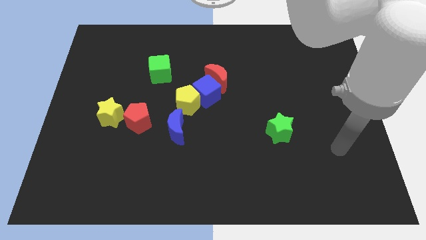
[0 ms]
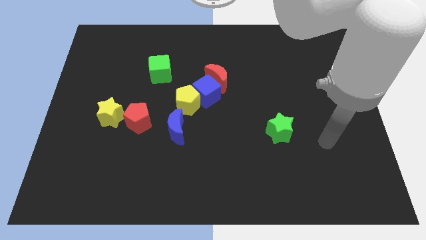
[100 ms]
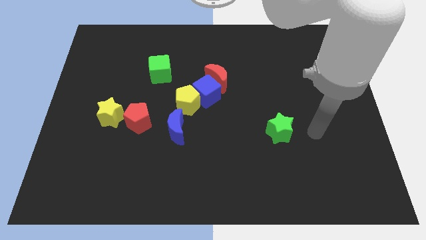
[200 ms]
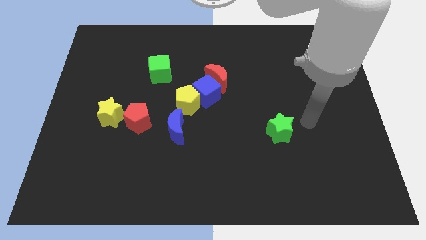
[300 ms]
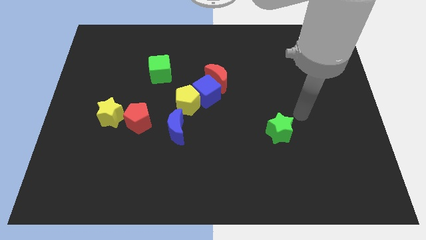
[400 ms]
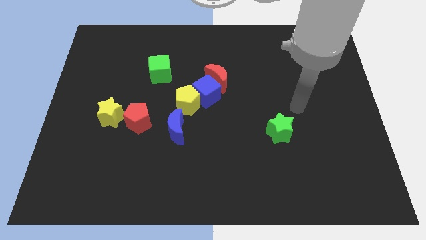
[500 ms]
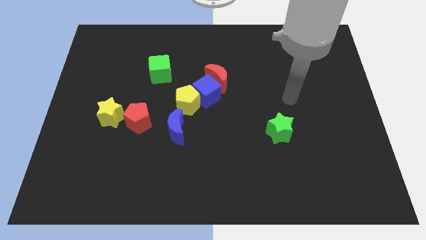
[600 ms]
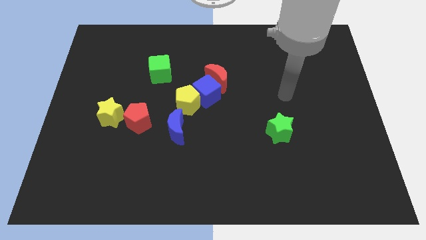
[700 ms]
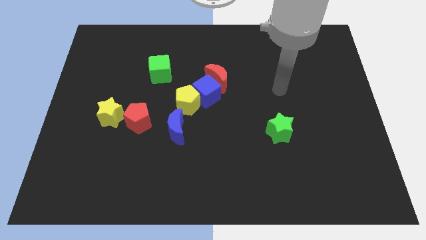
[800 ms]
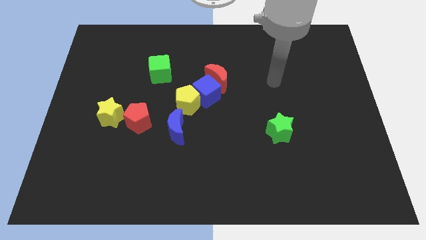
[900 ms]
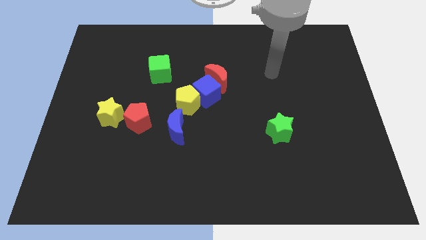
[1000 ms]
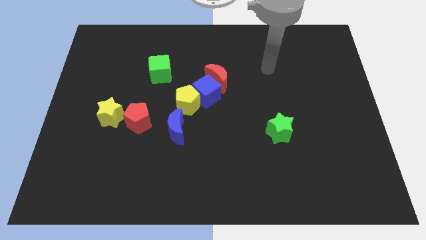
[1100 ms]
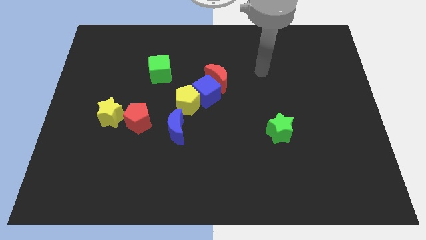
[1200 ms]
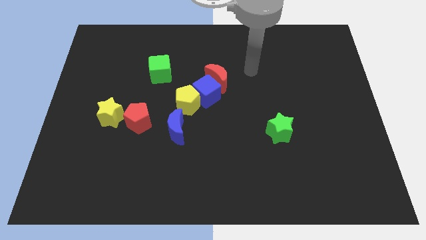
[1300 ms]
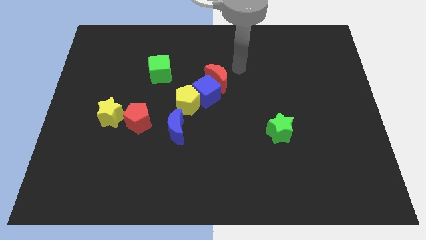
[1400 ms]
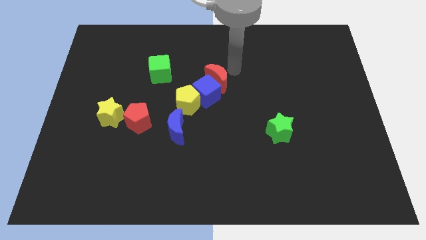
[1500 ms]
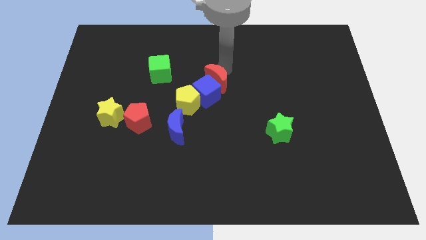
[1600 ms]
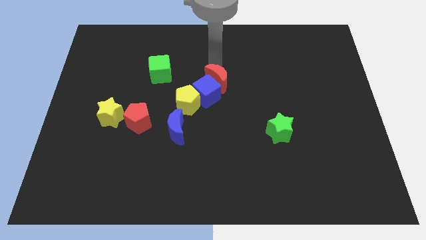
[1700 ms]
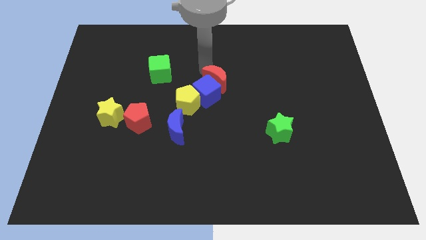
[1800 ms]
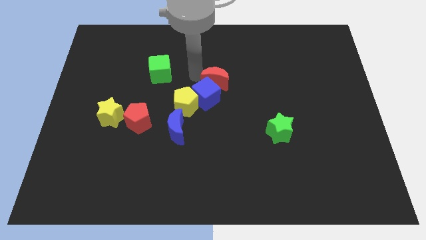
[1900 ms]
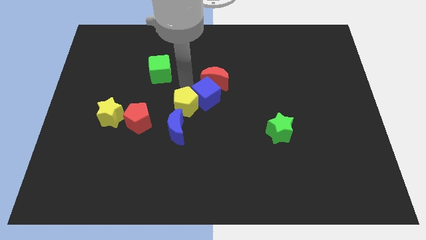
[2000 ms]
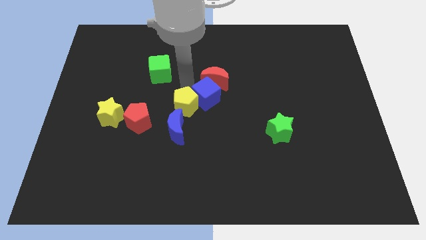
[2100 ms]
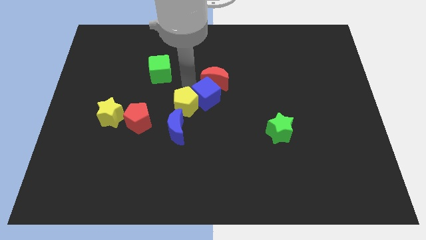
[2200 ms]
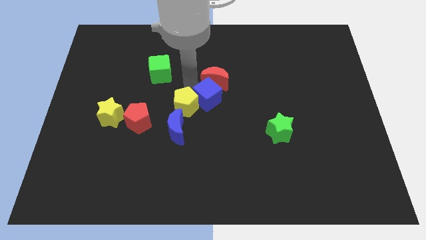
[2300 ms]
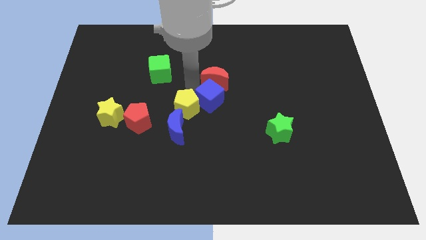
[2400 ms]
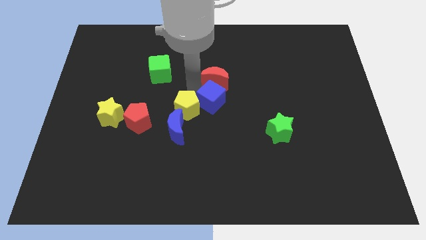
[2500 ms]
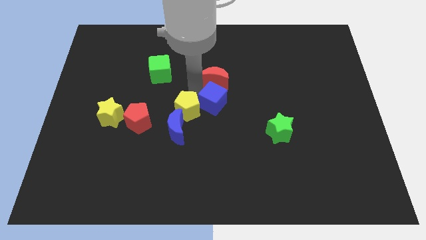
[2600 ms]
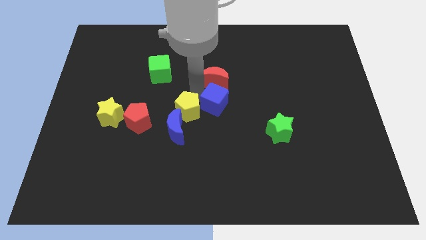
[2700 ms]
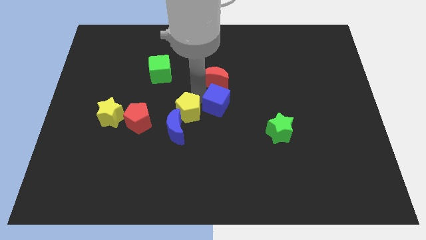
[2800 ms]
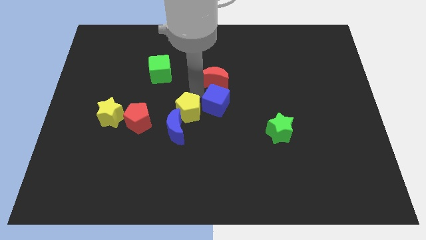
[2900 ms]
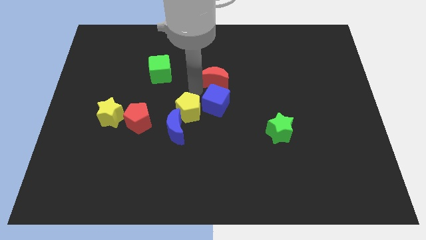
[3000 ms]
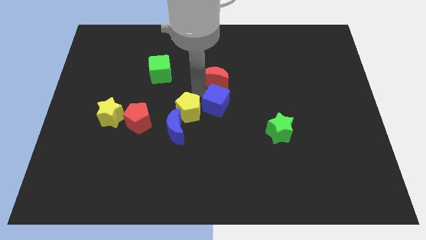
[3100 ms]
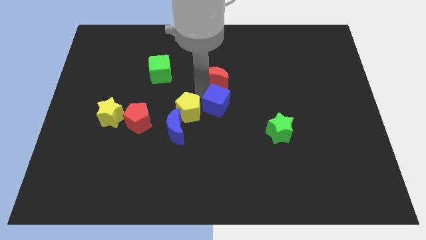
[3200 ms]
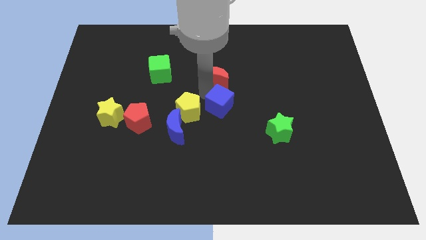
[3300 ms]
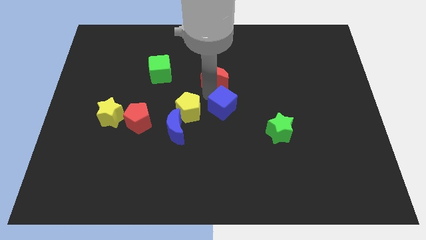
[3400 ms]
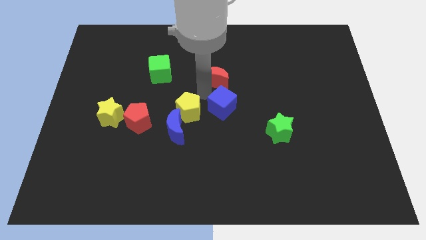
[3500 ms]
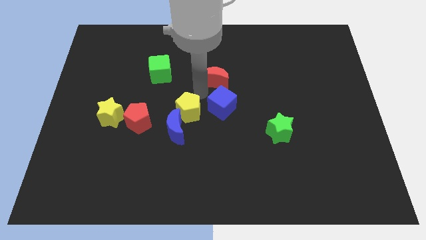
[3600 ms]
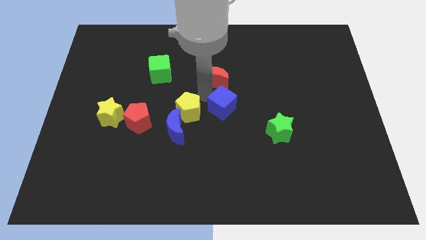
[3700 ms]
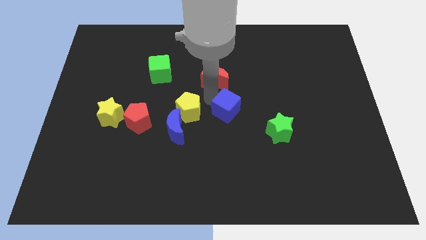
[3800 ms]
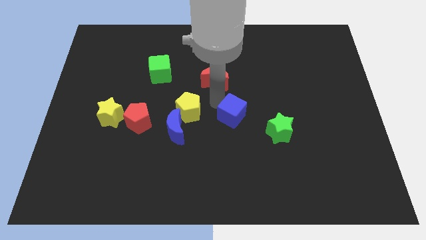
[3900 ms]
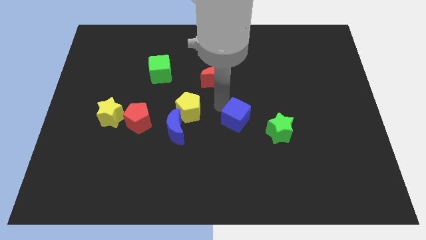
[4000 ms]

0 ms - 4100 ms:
move the blue cube away from the yellow pentagon and red moon

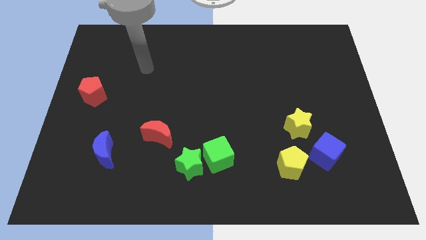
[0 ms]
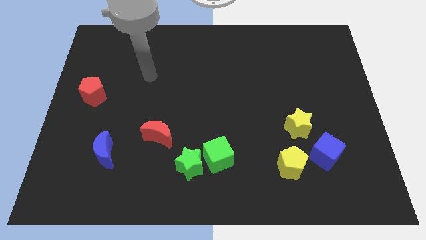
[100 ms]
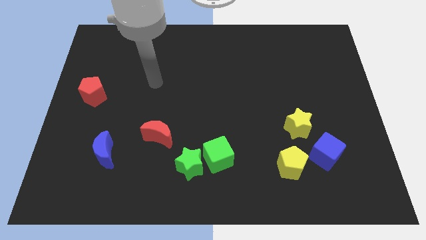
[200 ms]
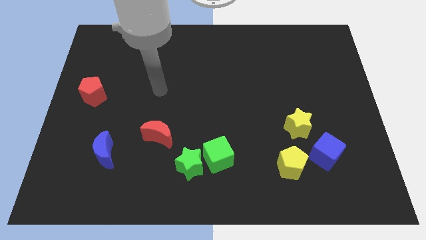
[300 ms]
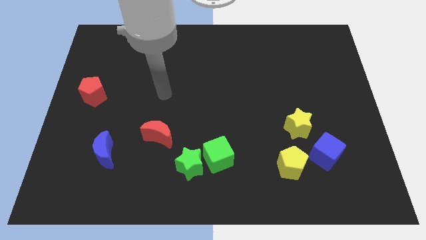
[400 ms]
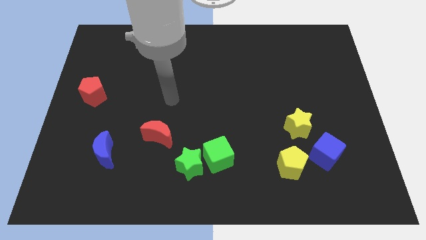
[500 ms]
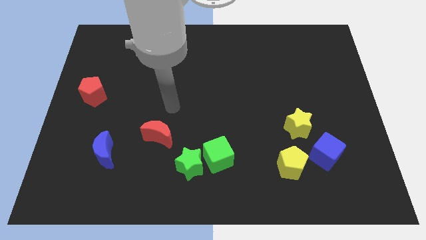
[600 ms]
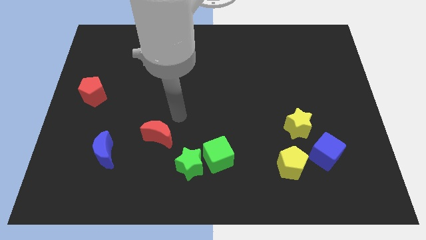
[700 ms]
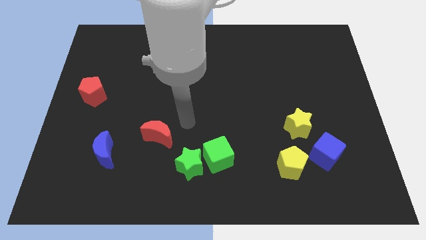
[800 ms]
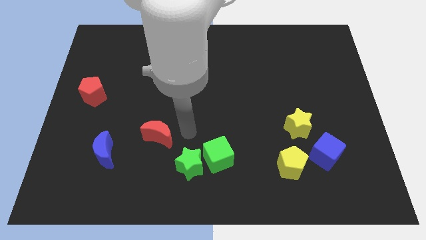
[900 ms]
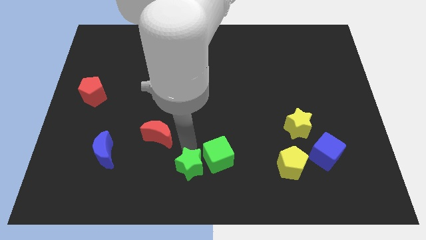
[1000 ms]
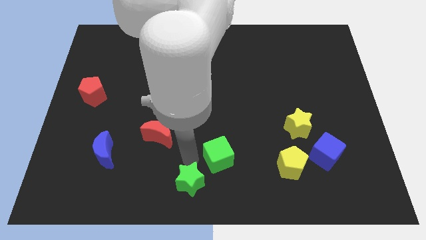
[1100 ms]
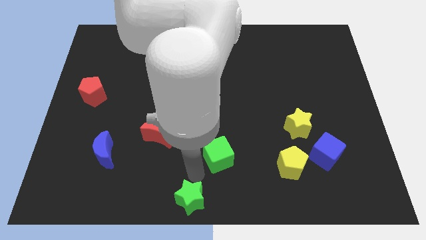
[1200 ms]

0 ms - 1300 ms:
move the green cube away from the green star

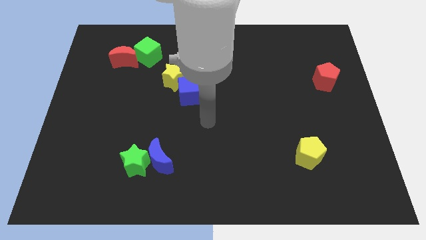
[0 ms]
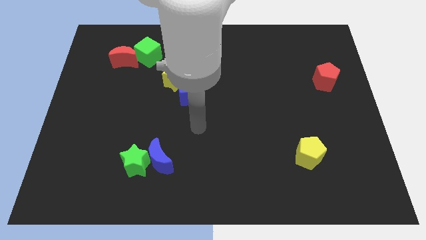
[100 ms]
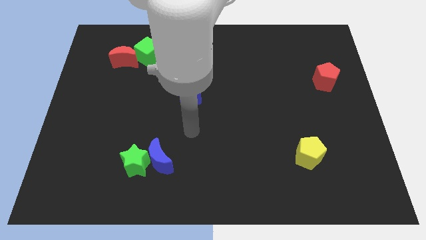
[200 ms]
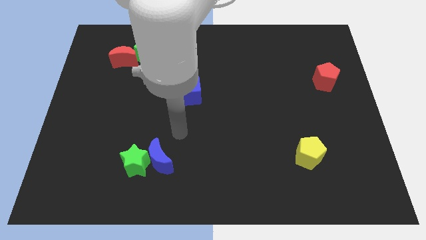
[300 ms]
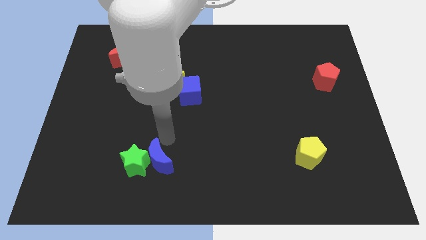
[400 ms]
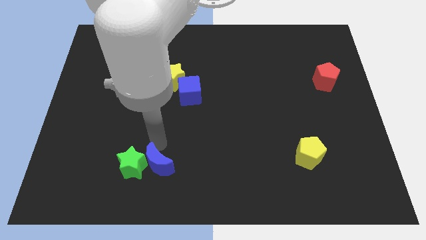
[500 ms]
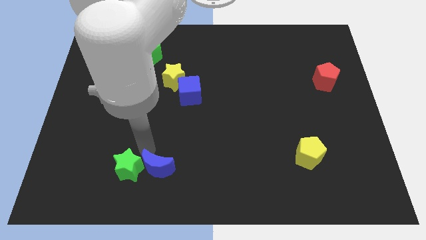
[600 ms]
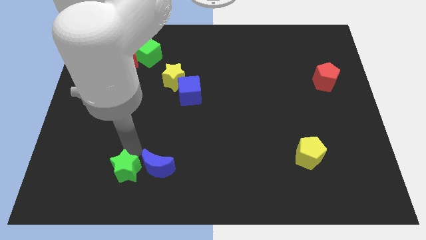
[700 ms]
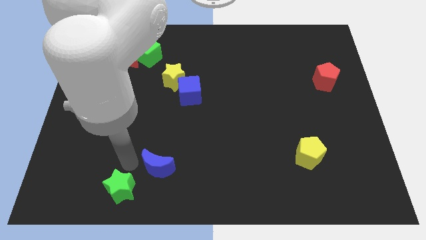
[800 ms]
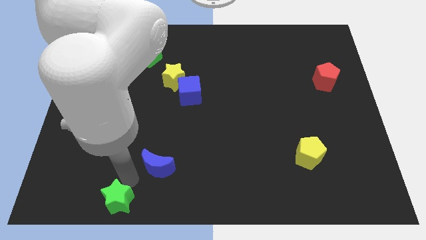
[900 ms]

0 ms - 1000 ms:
separate the blue moon from the green star

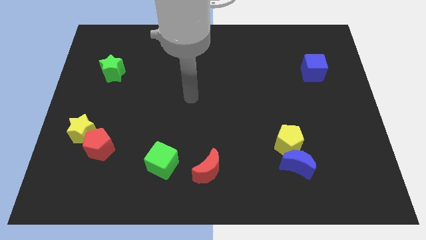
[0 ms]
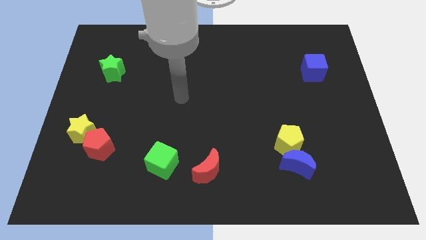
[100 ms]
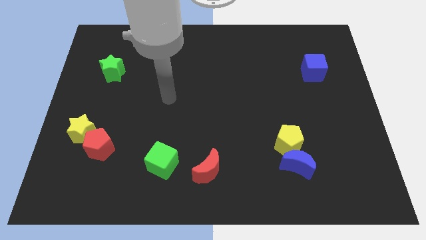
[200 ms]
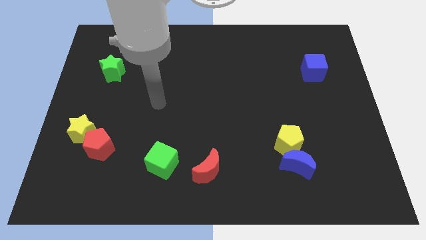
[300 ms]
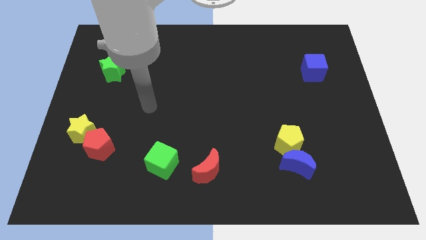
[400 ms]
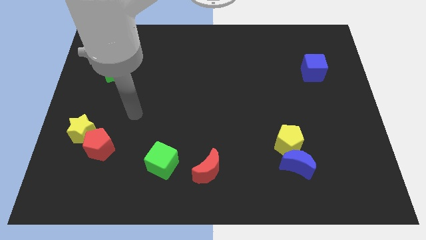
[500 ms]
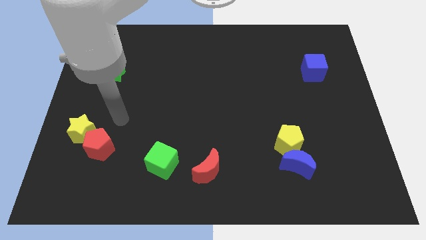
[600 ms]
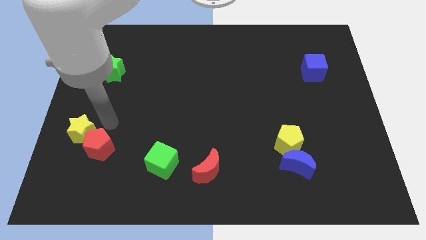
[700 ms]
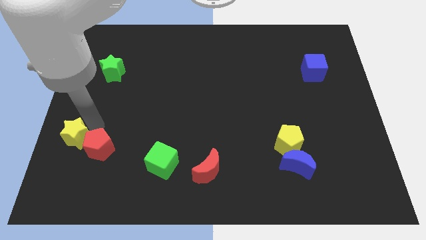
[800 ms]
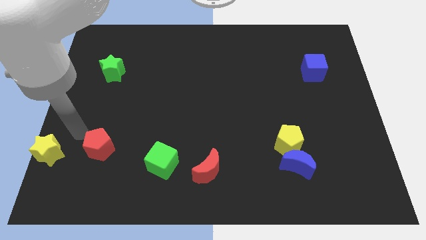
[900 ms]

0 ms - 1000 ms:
move the red pentagon away from the yellow star

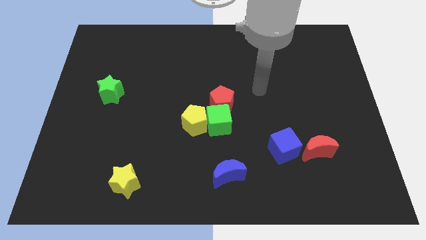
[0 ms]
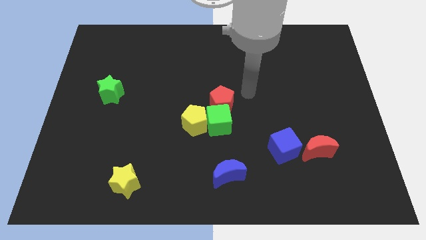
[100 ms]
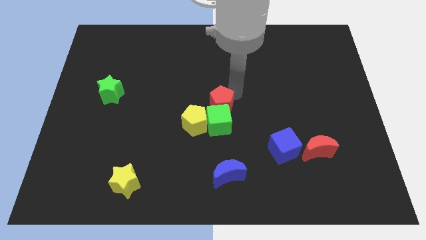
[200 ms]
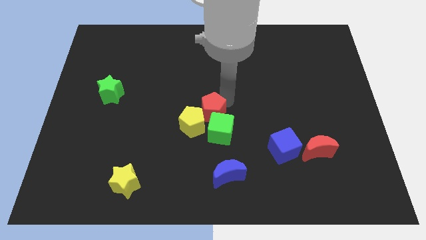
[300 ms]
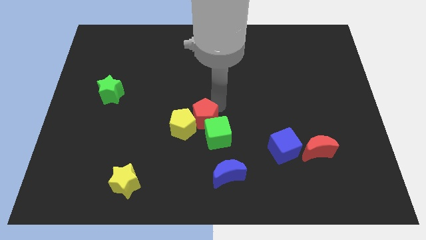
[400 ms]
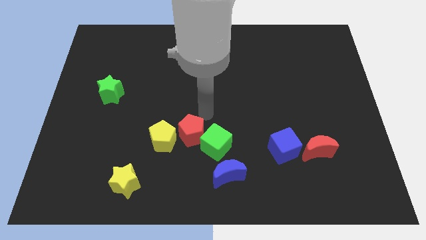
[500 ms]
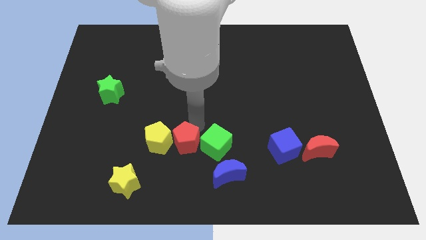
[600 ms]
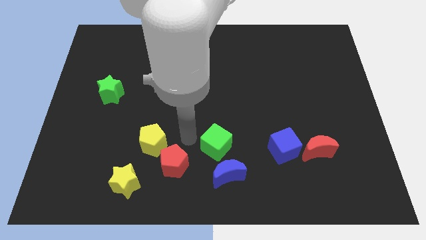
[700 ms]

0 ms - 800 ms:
separate the green cube from the yellow pentagon and red pentagon

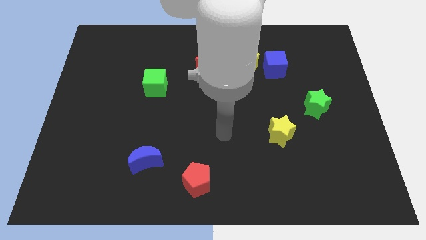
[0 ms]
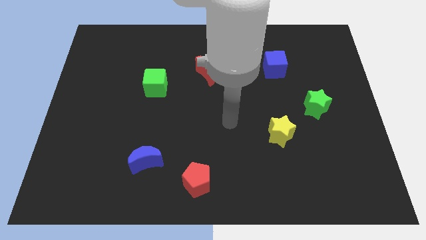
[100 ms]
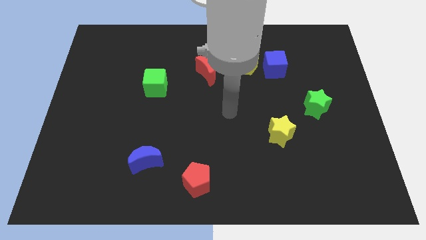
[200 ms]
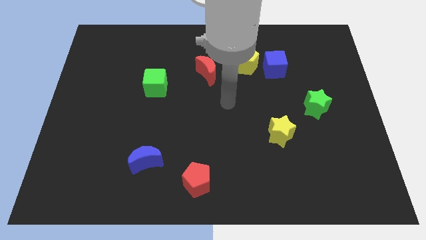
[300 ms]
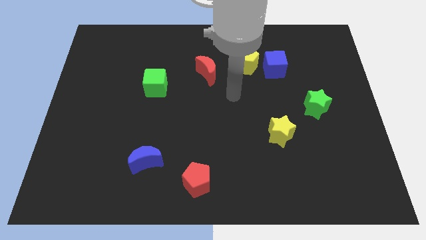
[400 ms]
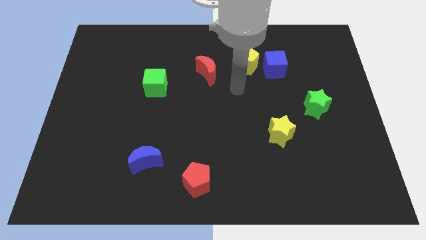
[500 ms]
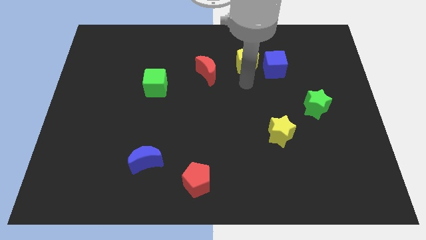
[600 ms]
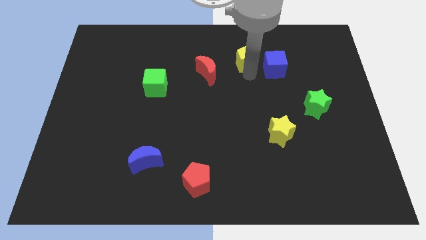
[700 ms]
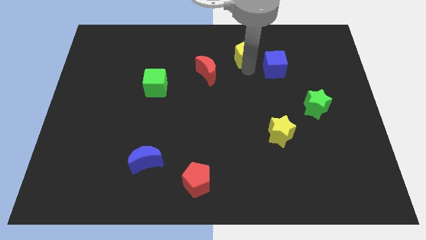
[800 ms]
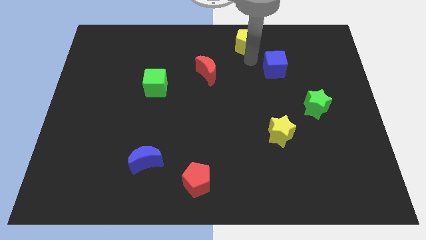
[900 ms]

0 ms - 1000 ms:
separate the blue cube from the yellow pentagon
